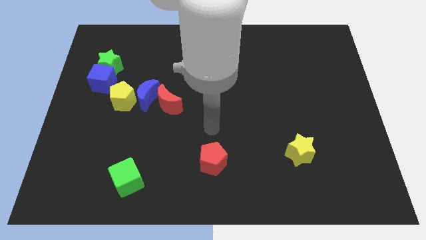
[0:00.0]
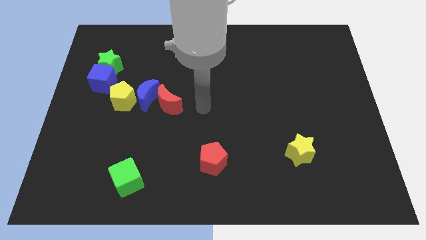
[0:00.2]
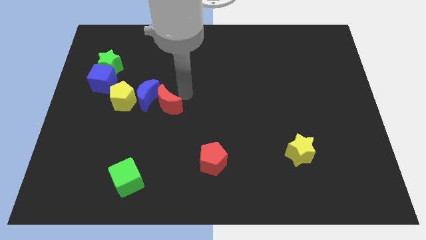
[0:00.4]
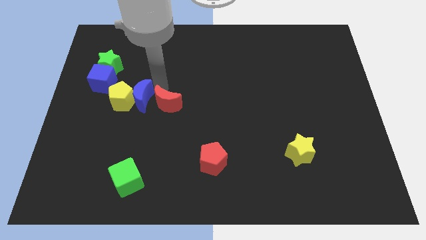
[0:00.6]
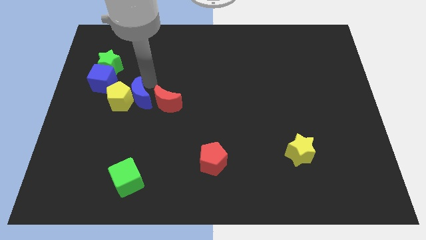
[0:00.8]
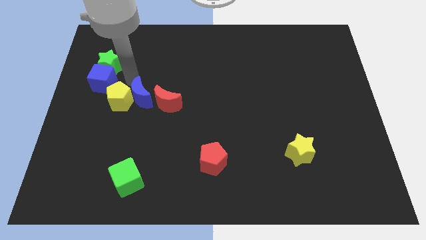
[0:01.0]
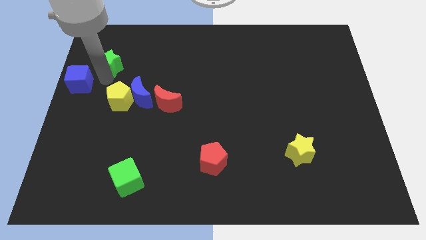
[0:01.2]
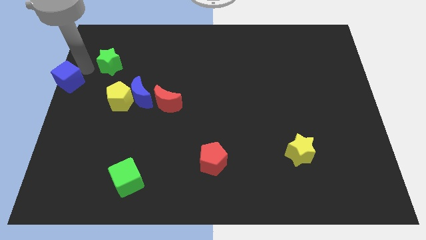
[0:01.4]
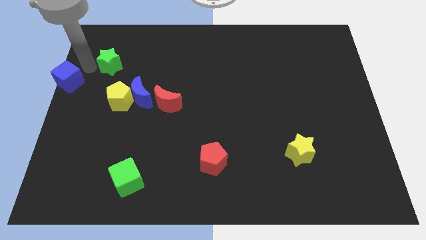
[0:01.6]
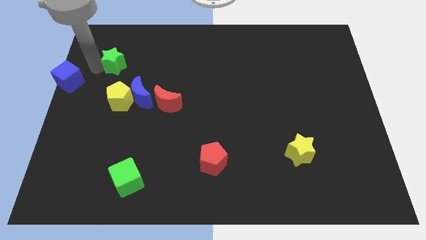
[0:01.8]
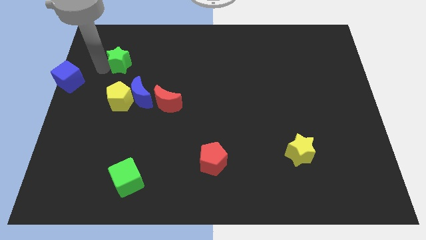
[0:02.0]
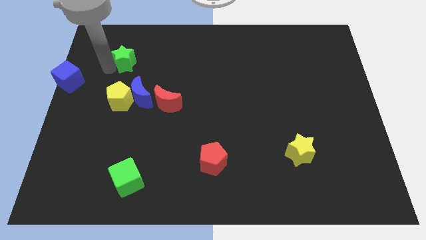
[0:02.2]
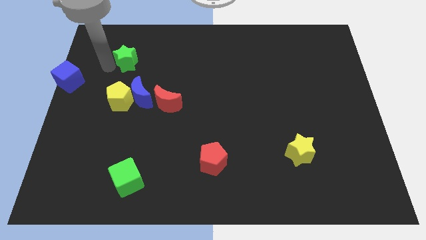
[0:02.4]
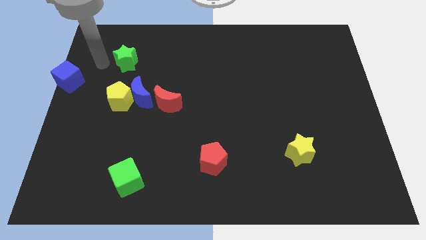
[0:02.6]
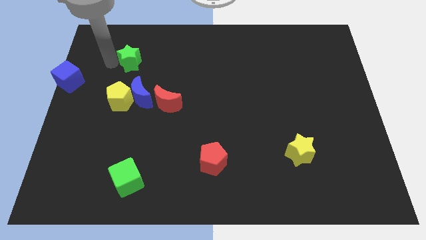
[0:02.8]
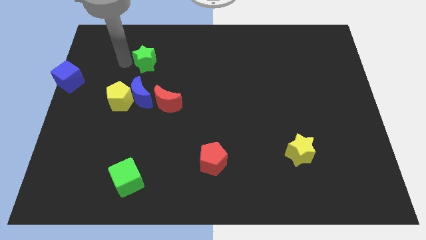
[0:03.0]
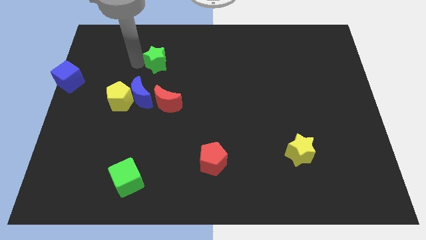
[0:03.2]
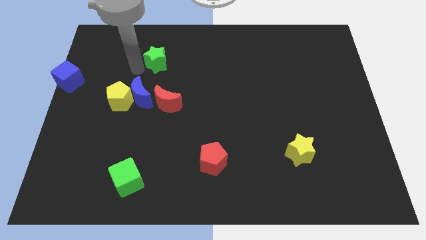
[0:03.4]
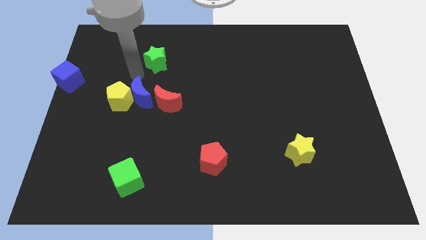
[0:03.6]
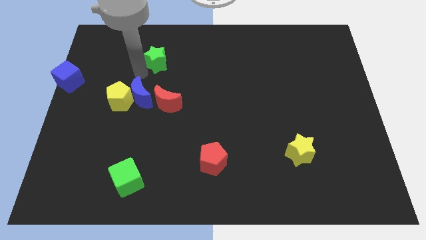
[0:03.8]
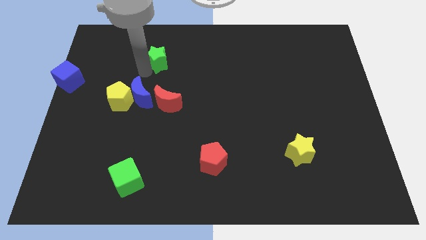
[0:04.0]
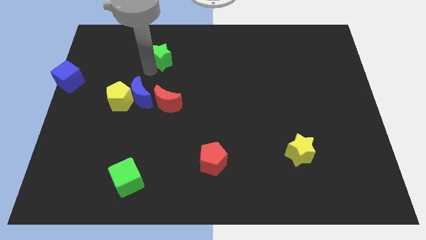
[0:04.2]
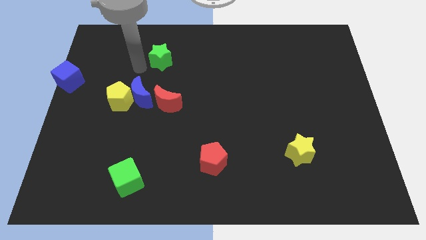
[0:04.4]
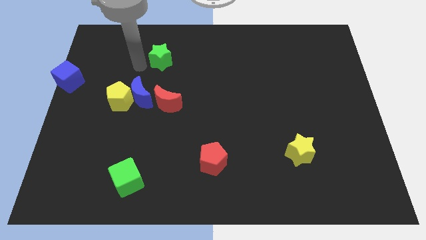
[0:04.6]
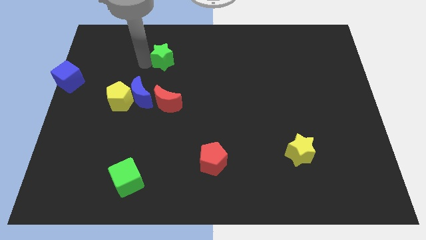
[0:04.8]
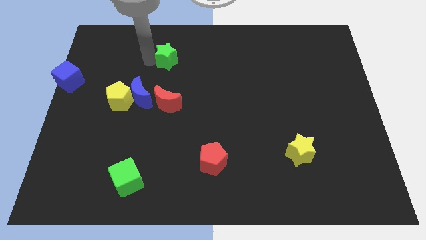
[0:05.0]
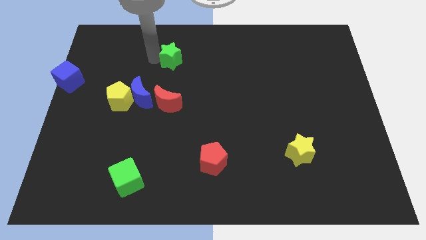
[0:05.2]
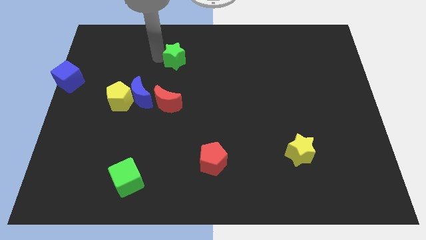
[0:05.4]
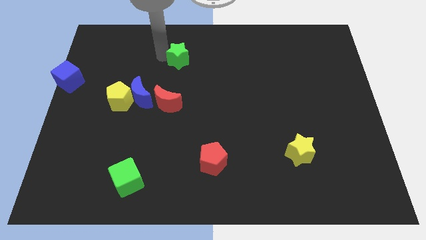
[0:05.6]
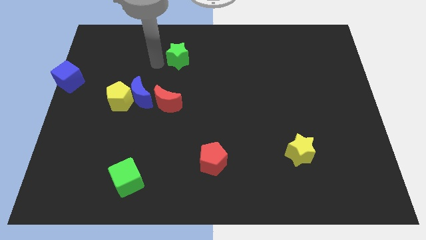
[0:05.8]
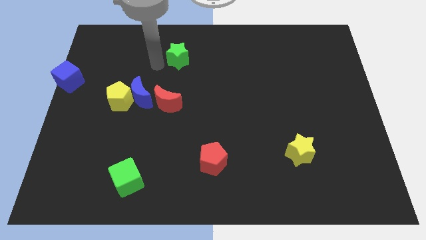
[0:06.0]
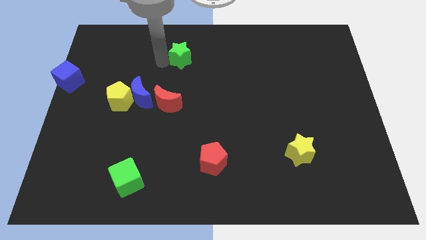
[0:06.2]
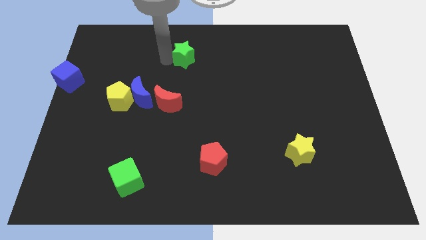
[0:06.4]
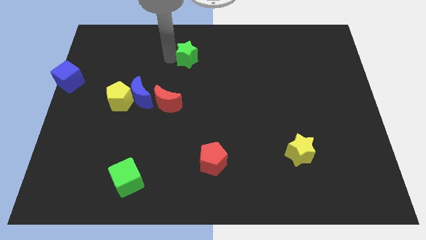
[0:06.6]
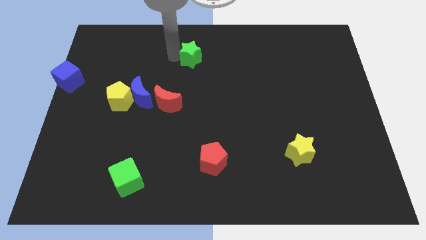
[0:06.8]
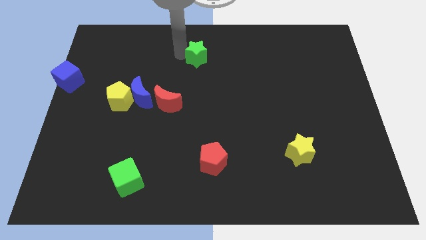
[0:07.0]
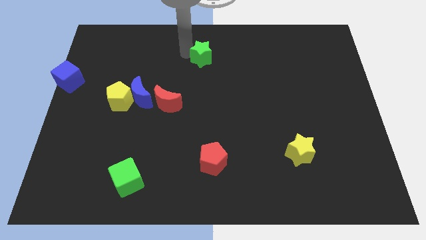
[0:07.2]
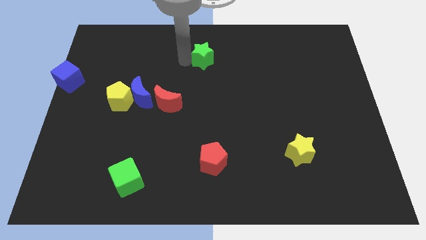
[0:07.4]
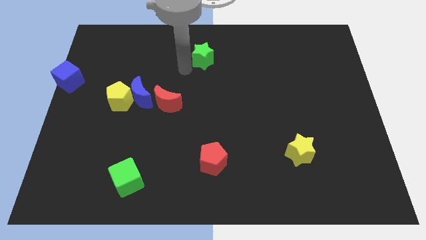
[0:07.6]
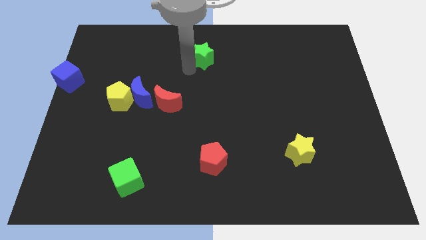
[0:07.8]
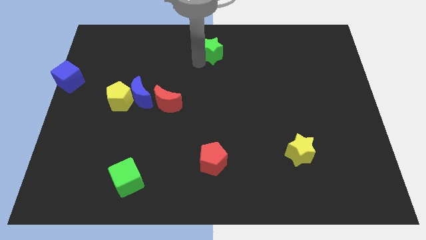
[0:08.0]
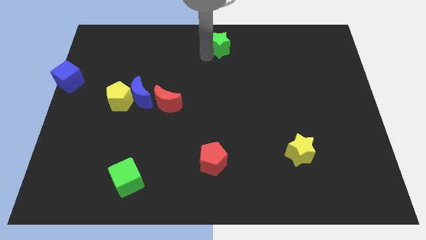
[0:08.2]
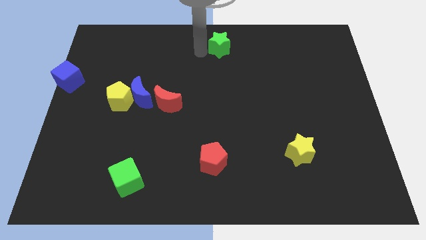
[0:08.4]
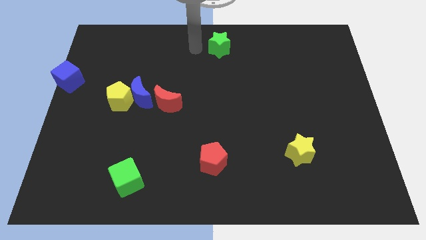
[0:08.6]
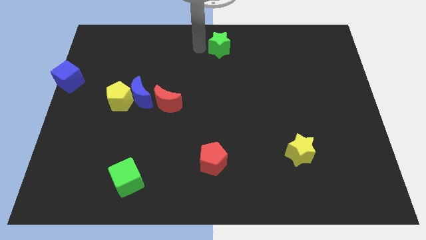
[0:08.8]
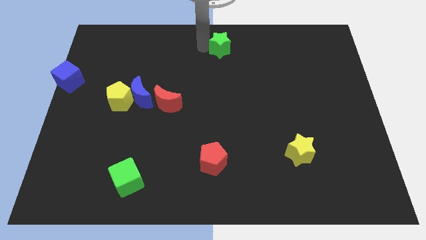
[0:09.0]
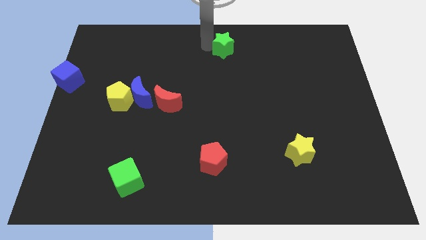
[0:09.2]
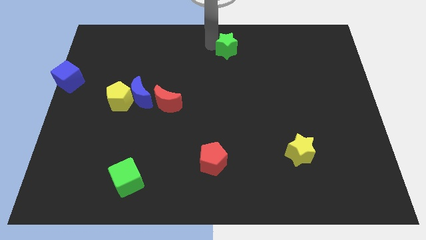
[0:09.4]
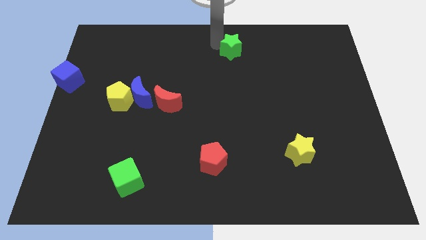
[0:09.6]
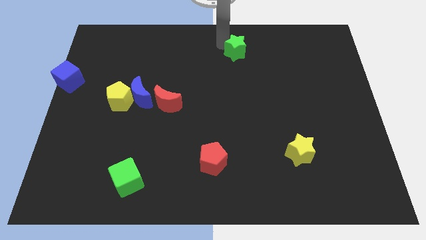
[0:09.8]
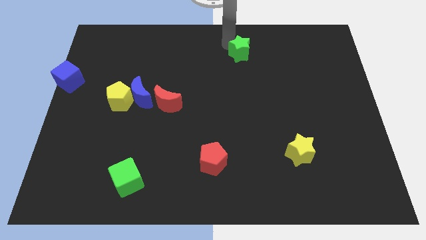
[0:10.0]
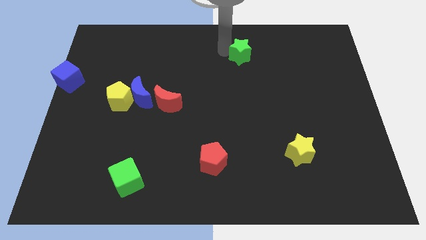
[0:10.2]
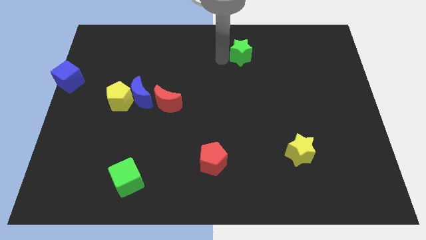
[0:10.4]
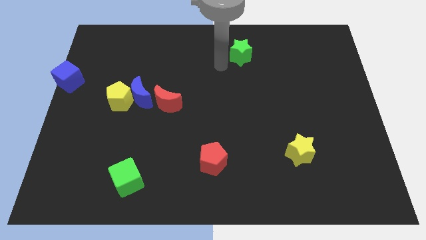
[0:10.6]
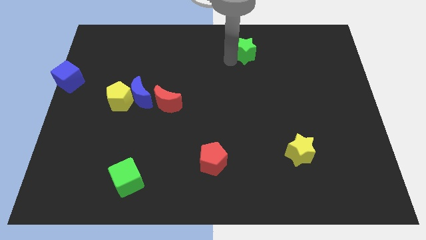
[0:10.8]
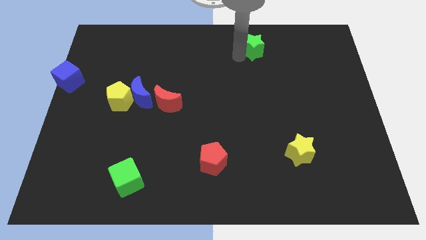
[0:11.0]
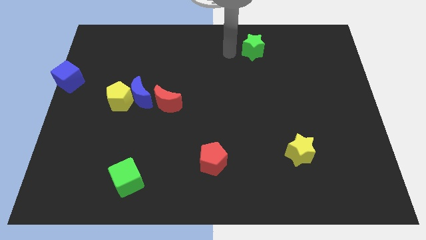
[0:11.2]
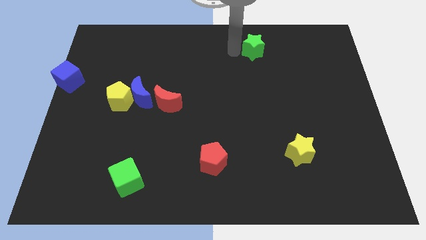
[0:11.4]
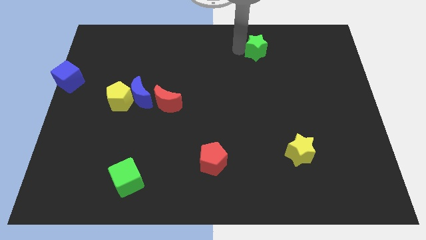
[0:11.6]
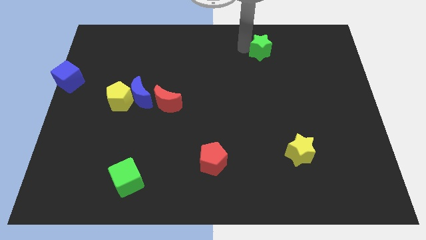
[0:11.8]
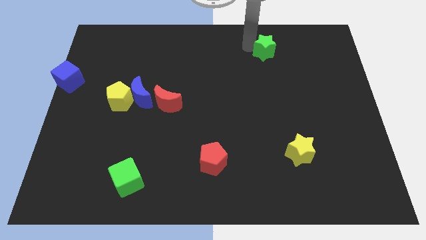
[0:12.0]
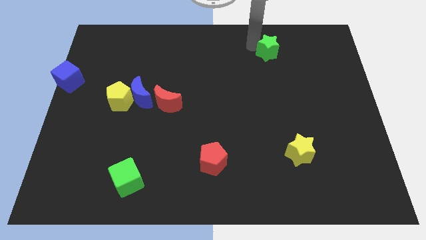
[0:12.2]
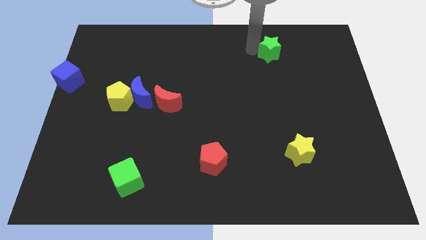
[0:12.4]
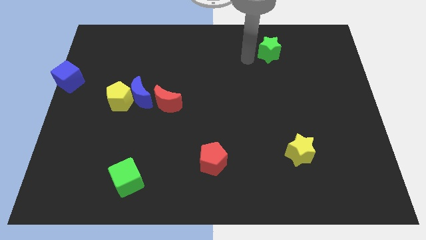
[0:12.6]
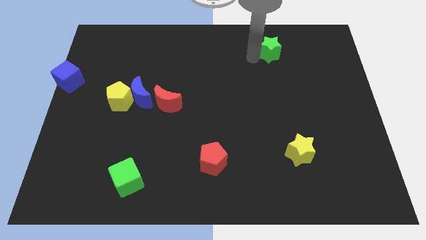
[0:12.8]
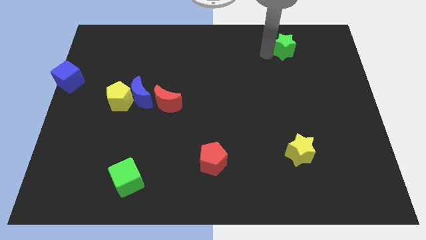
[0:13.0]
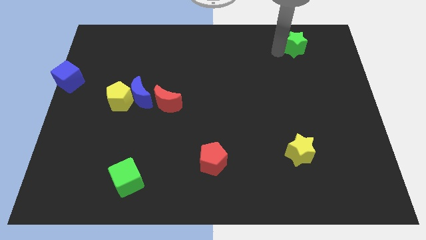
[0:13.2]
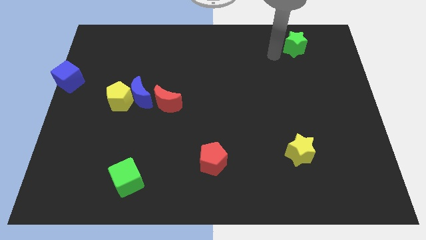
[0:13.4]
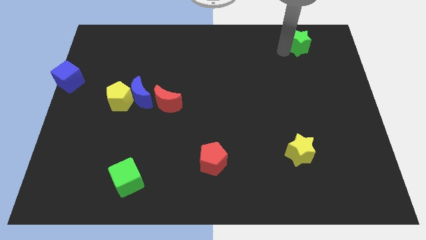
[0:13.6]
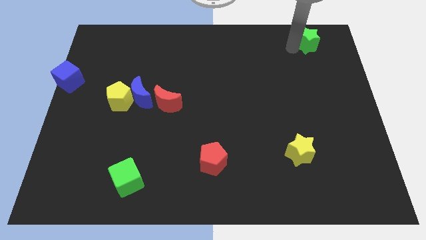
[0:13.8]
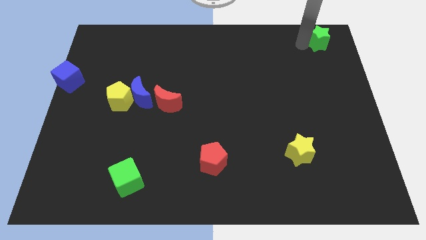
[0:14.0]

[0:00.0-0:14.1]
push the green star to the top right

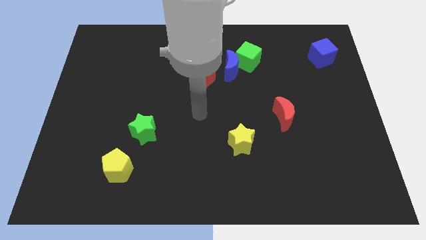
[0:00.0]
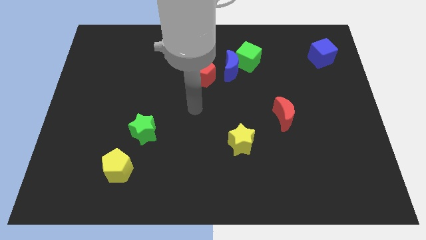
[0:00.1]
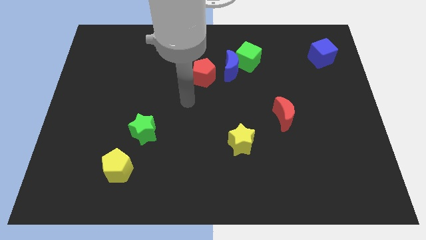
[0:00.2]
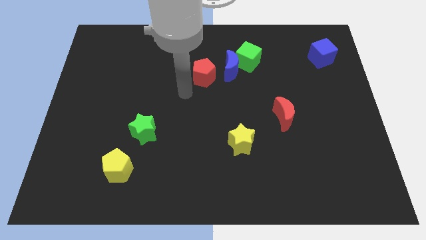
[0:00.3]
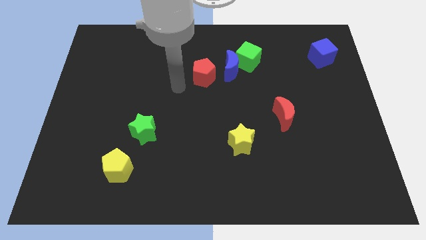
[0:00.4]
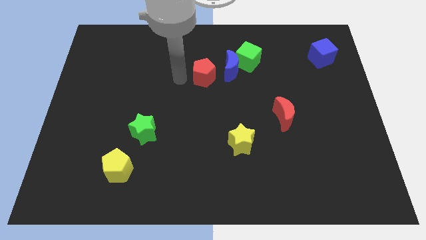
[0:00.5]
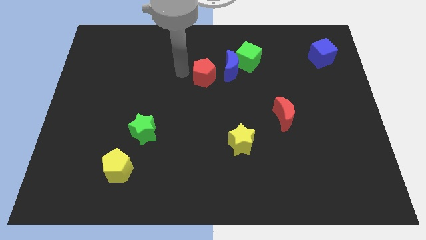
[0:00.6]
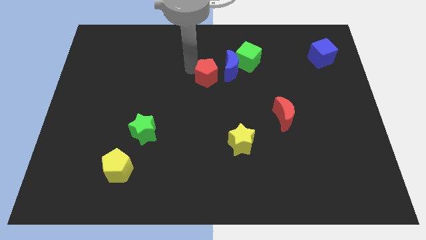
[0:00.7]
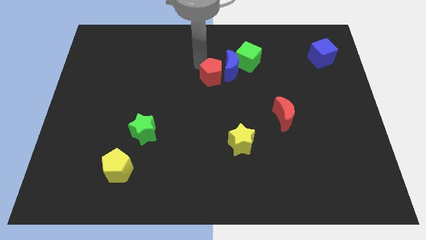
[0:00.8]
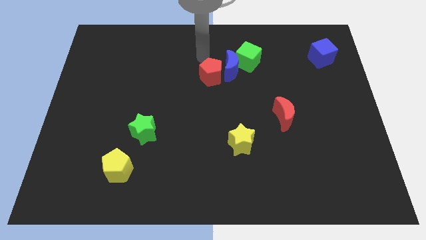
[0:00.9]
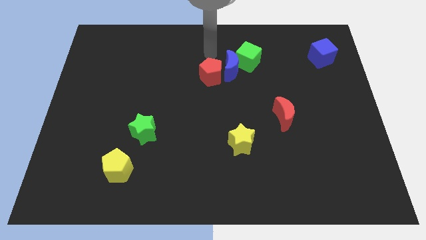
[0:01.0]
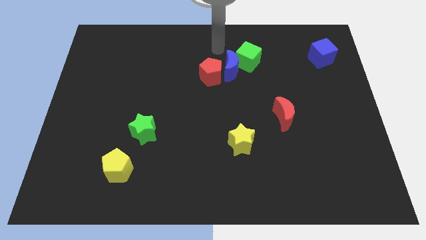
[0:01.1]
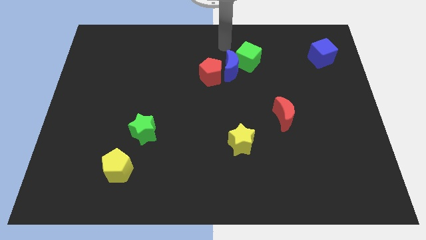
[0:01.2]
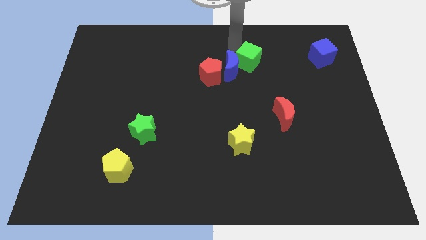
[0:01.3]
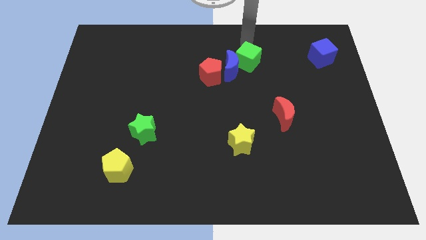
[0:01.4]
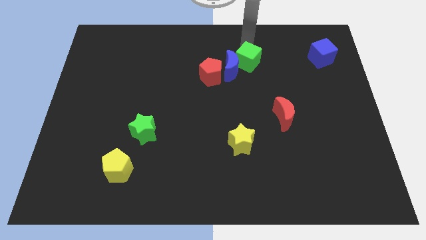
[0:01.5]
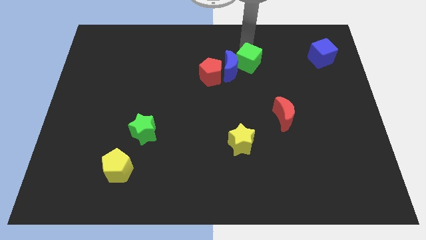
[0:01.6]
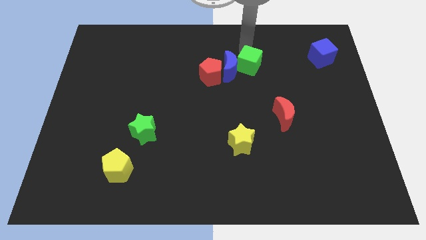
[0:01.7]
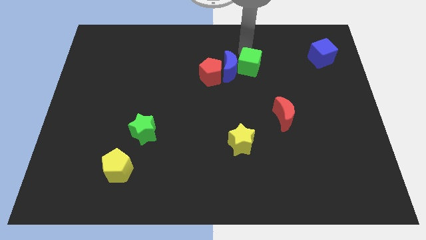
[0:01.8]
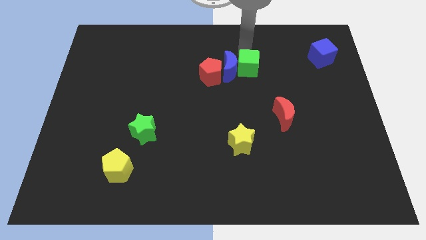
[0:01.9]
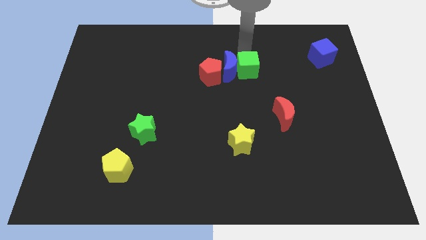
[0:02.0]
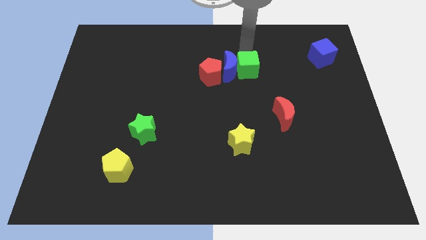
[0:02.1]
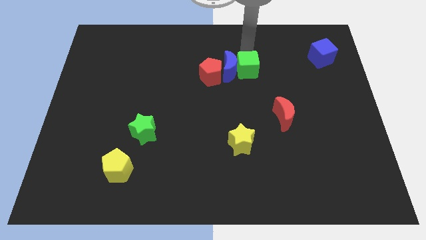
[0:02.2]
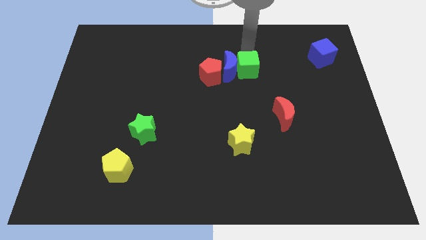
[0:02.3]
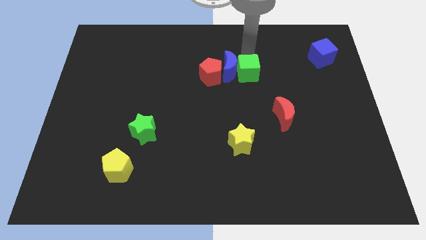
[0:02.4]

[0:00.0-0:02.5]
move the green cube to the middle
